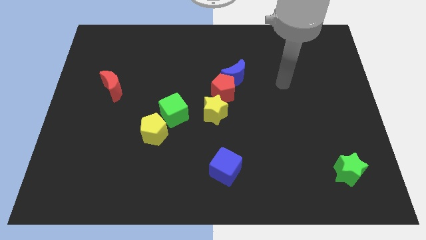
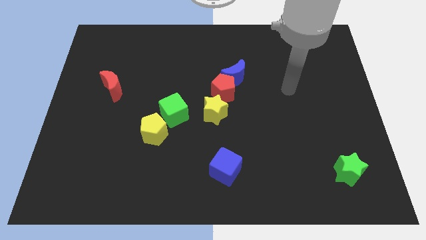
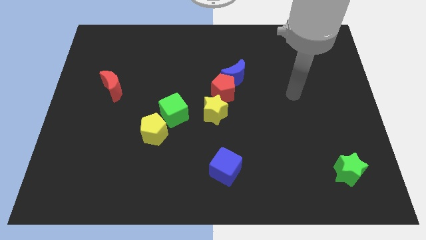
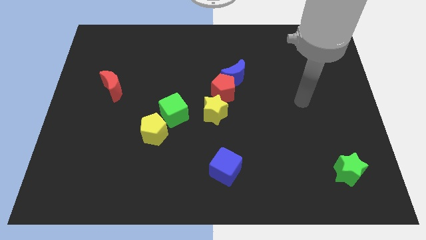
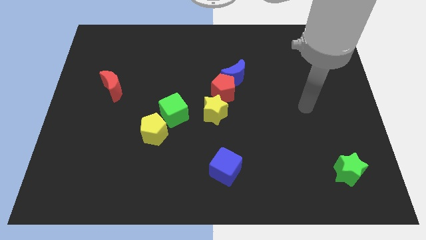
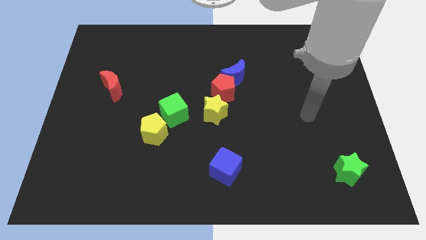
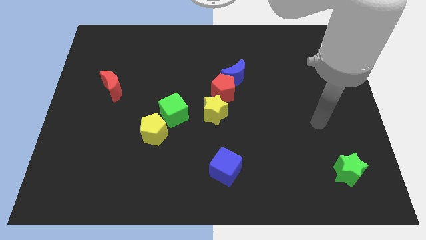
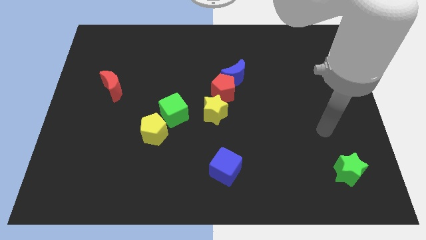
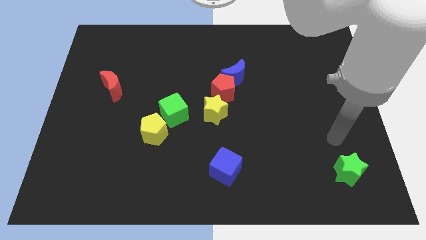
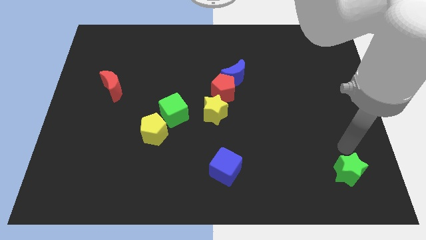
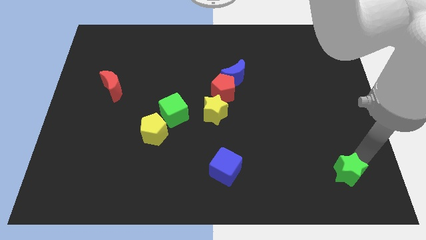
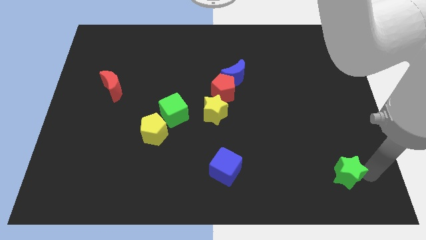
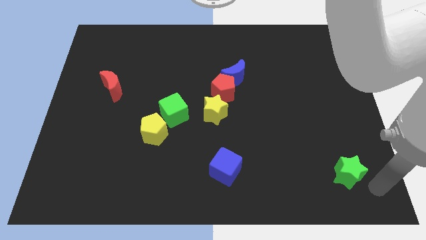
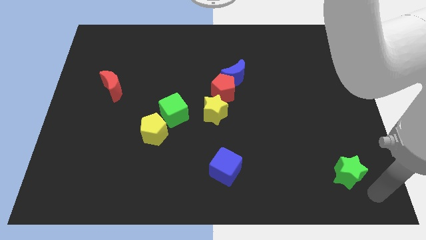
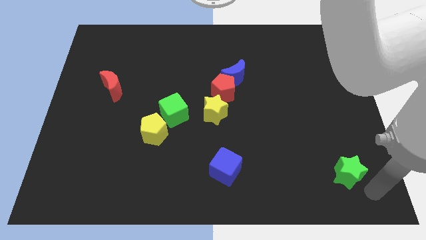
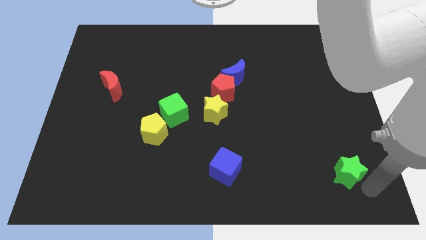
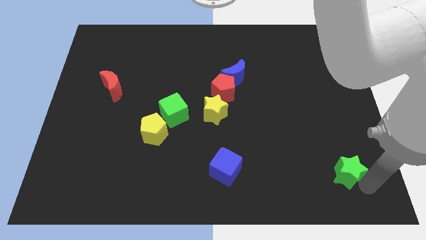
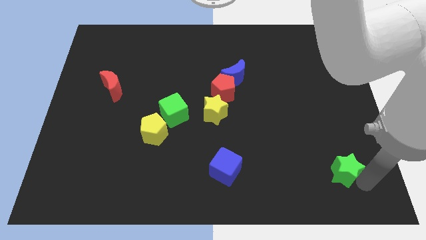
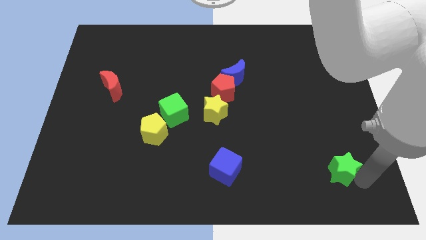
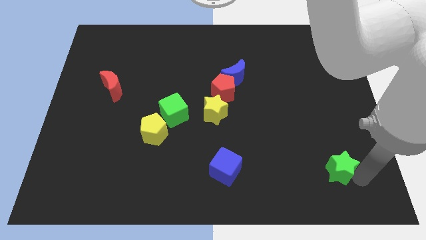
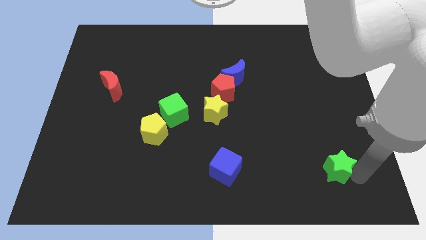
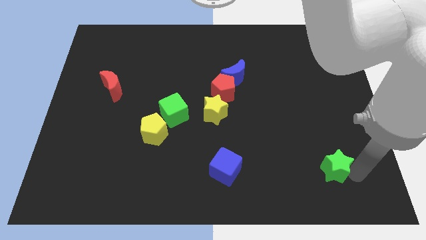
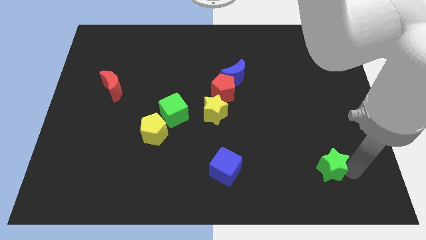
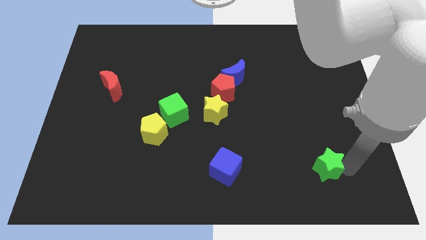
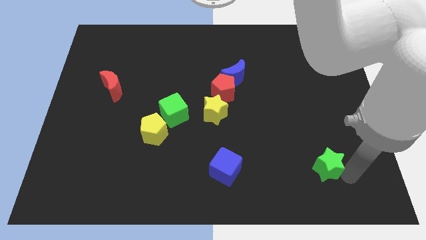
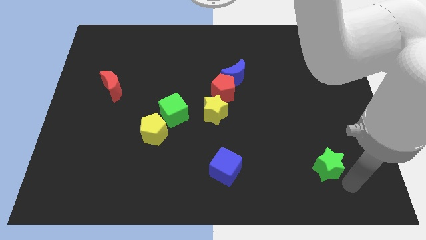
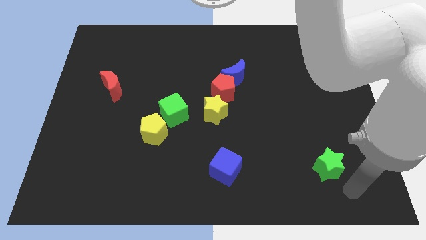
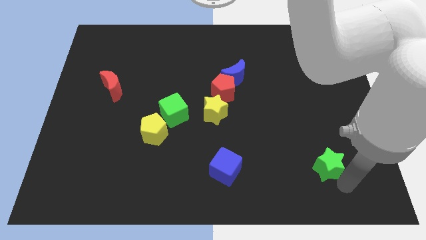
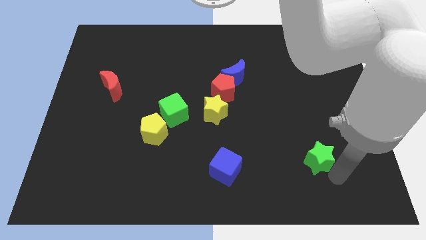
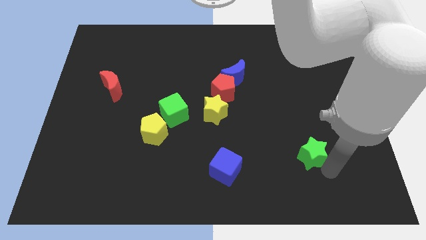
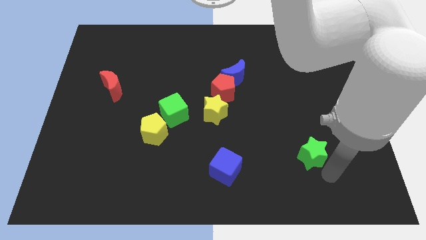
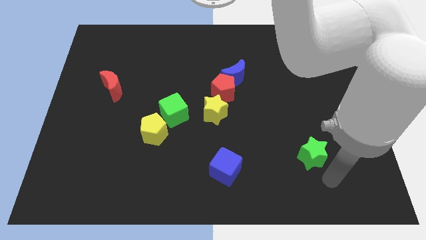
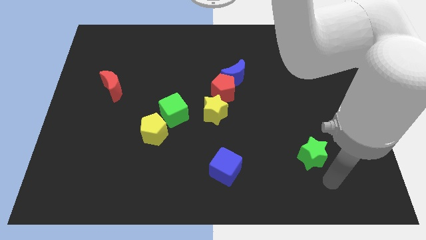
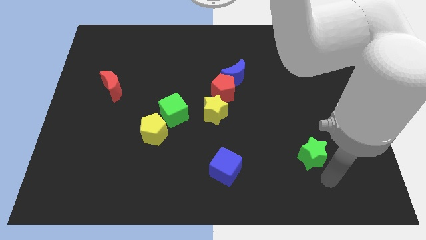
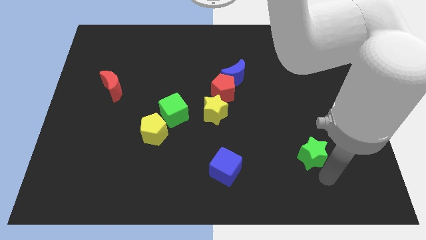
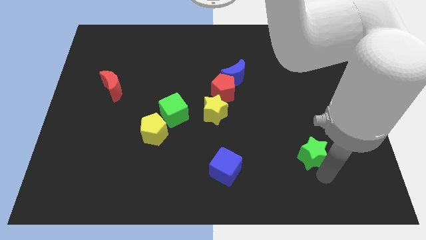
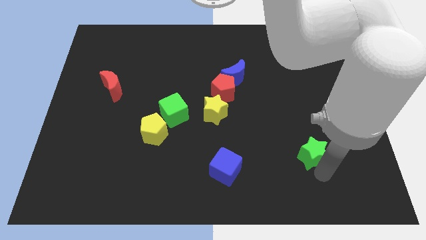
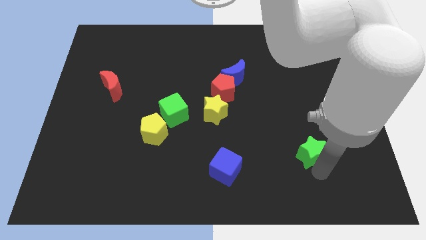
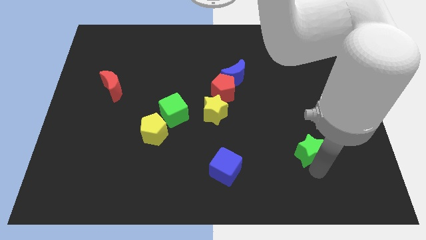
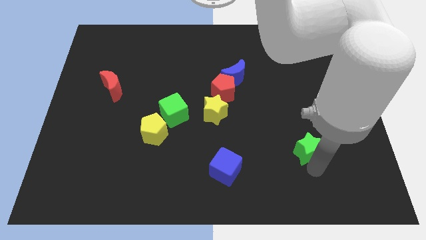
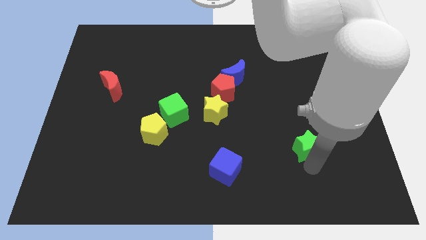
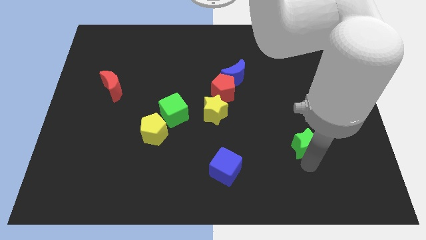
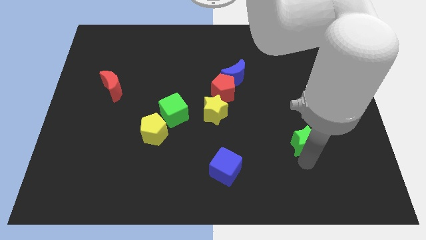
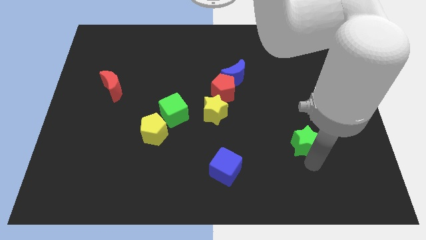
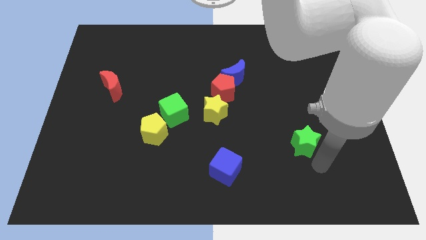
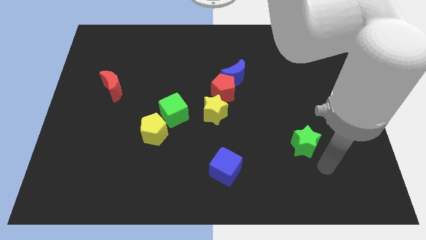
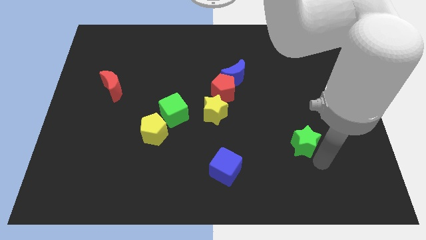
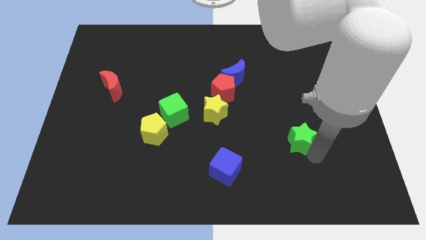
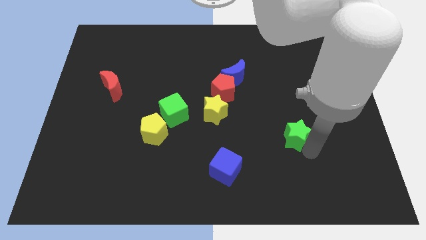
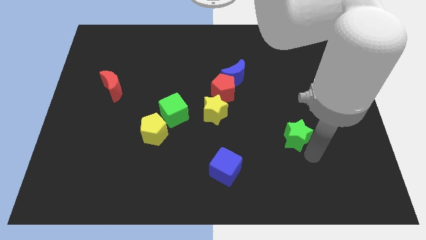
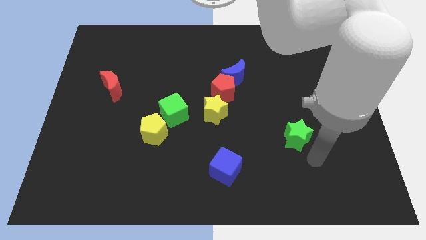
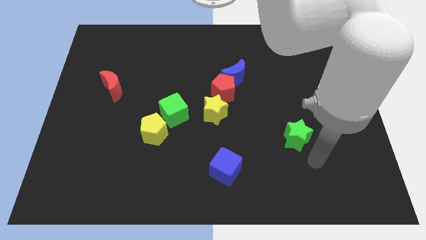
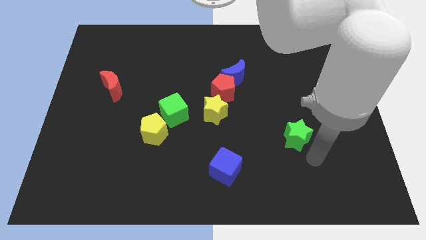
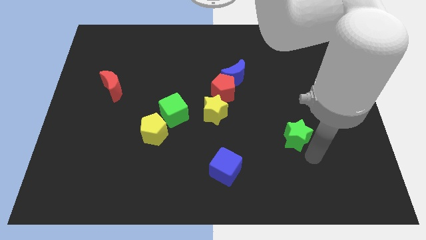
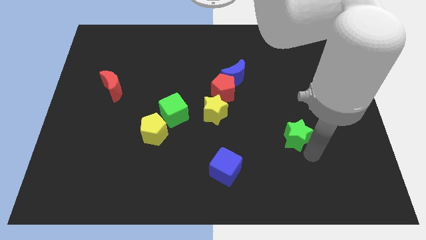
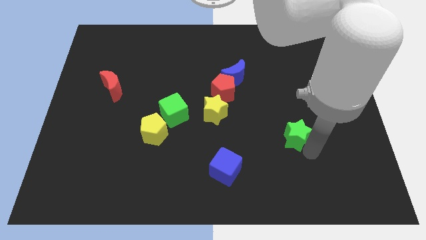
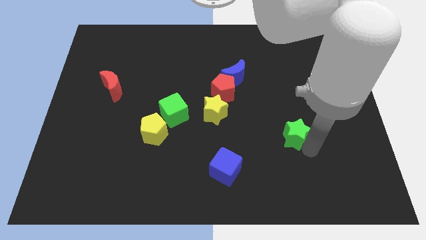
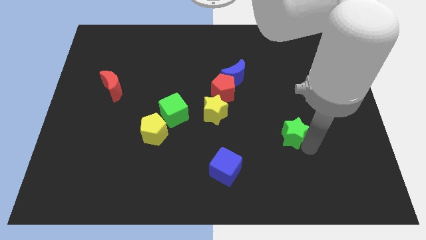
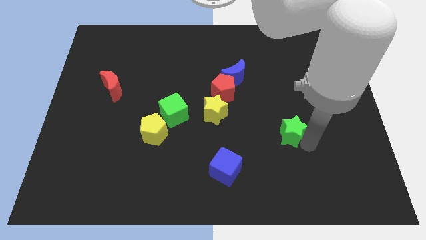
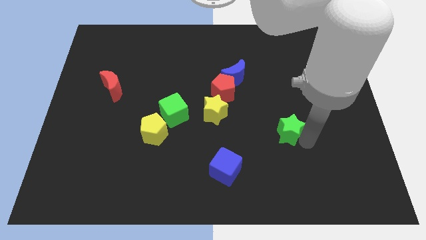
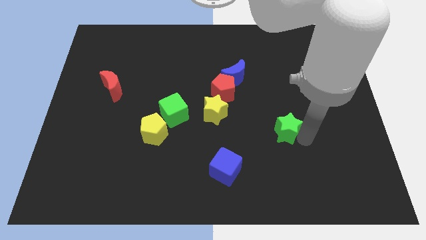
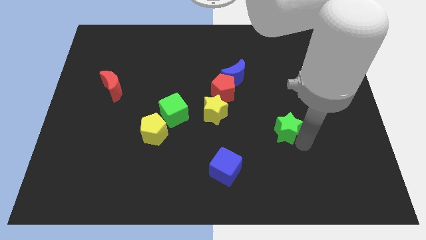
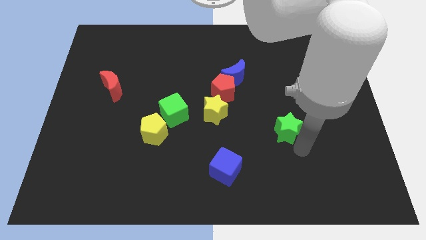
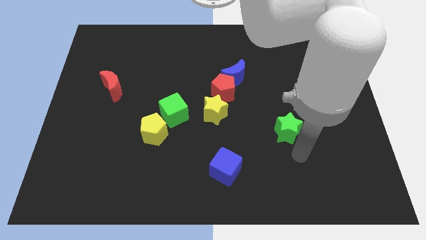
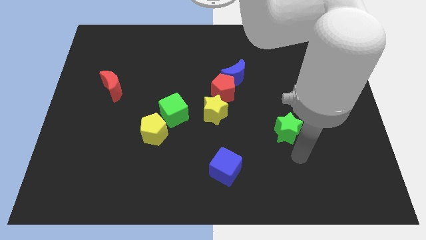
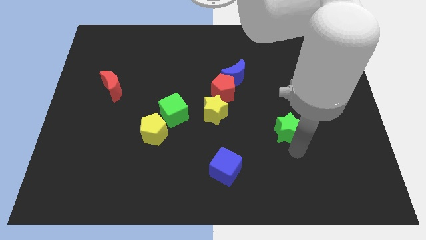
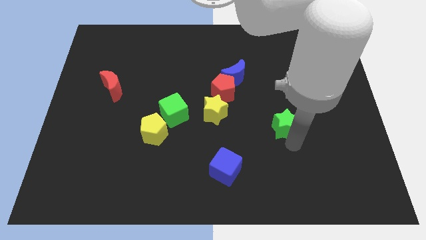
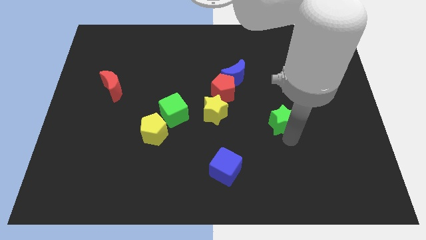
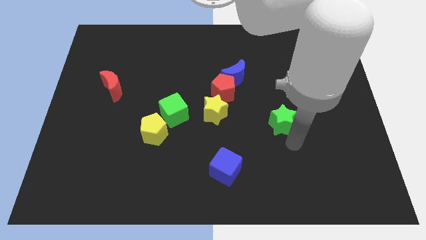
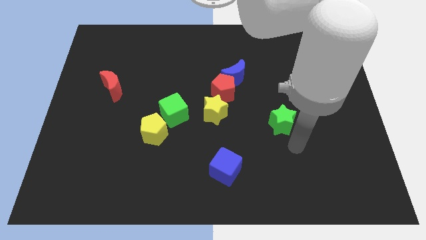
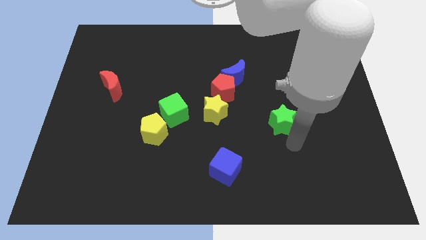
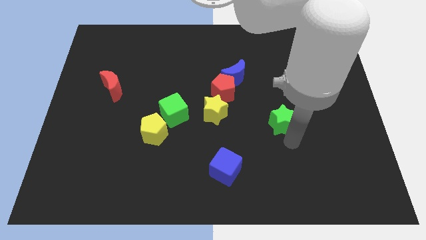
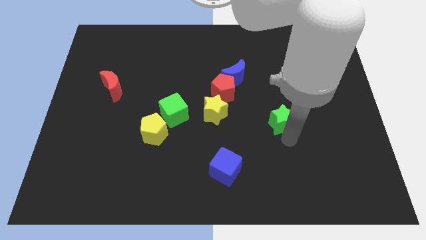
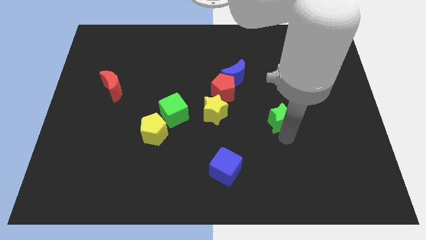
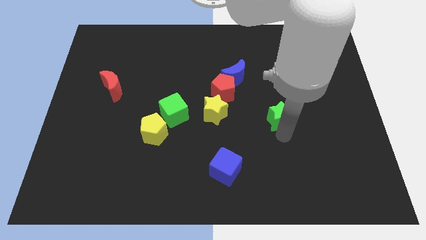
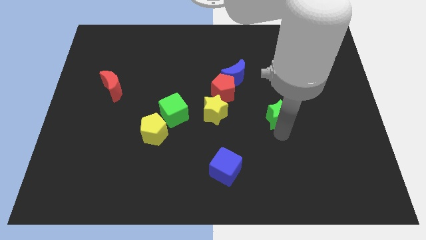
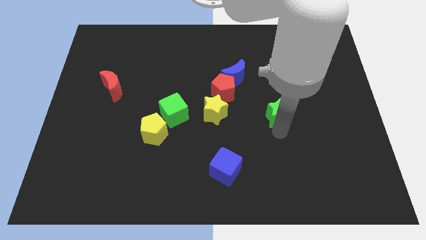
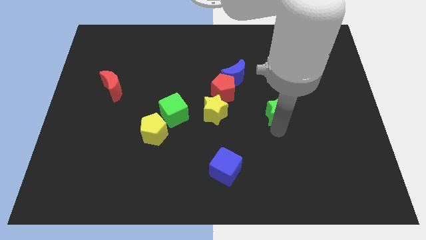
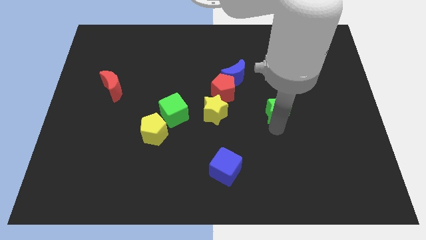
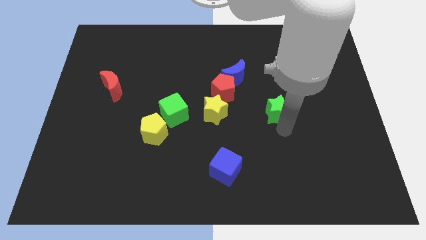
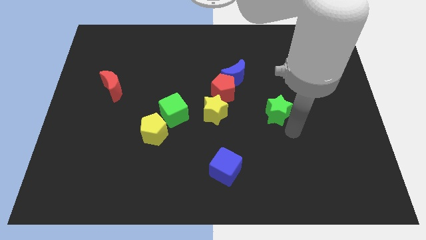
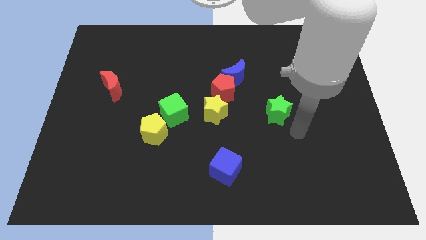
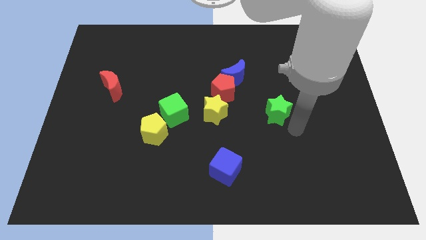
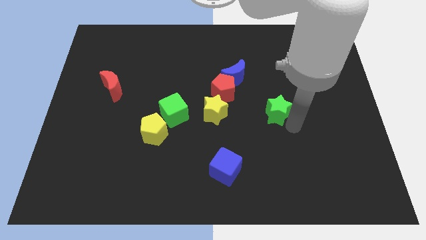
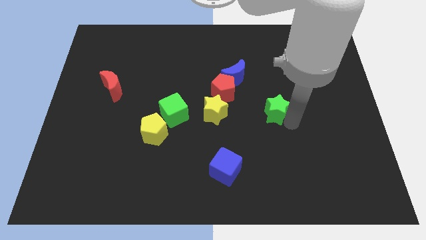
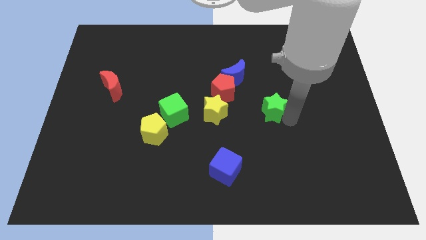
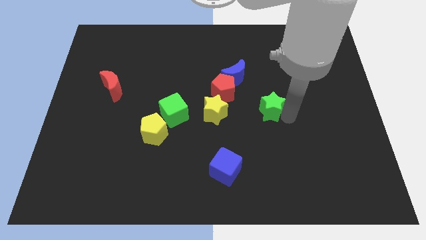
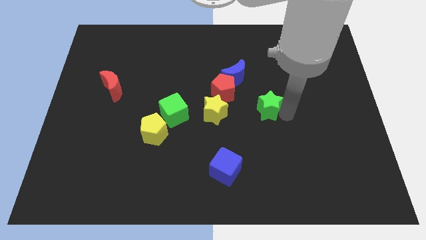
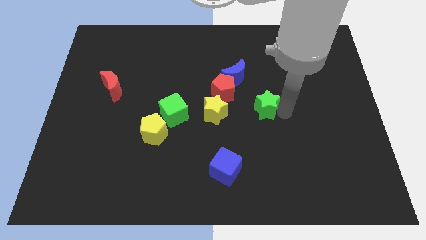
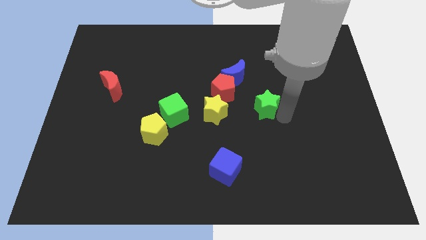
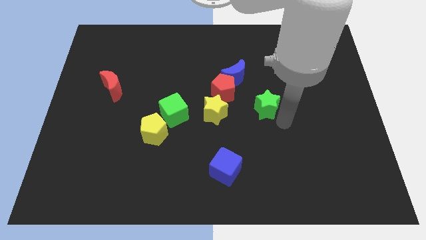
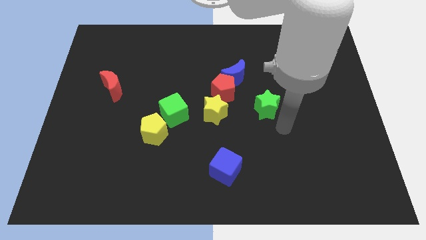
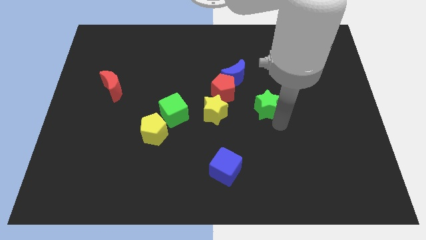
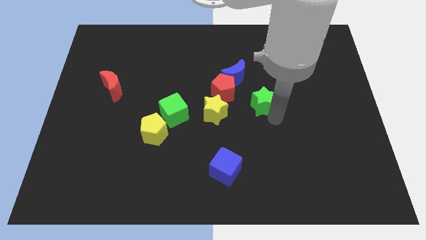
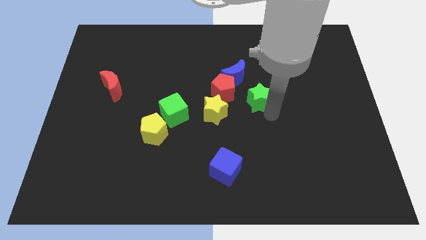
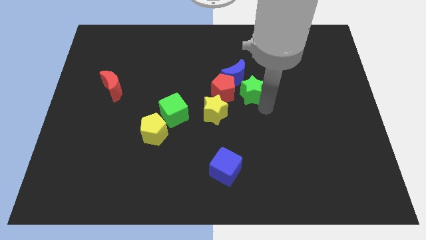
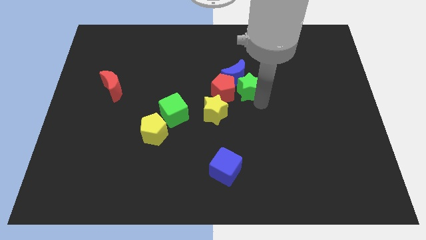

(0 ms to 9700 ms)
slide the green star close to the blue moon
